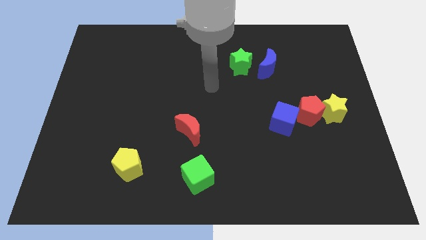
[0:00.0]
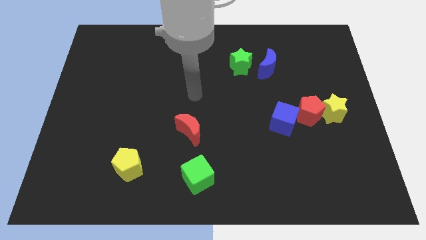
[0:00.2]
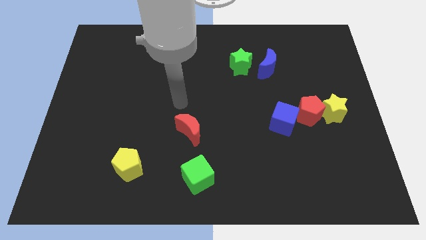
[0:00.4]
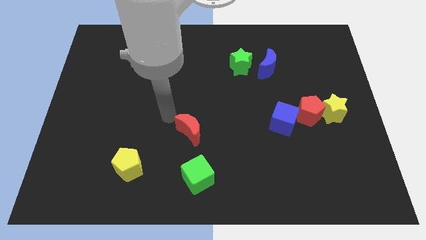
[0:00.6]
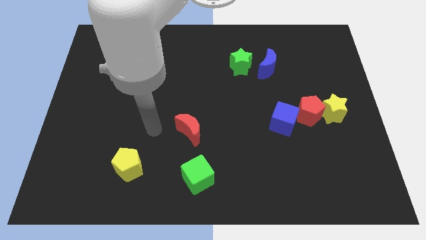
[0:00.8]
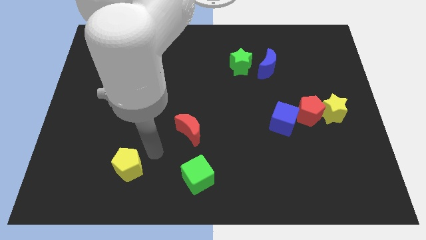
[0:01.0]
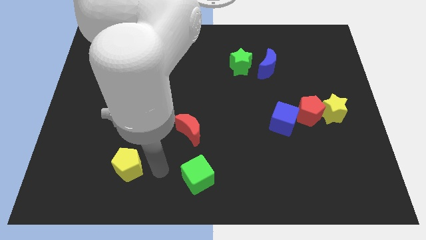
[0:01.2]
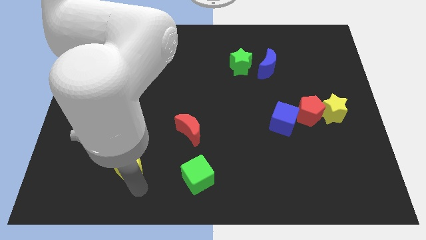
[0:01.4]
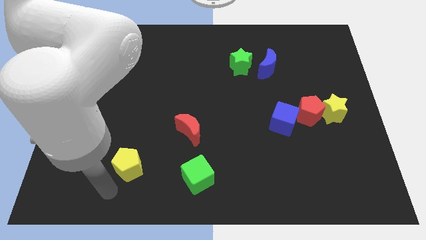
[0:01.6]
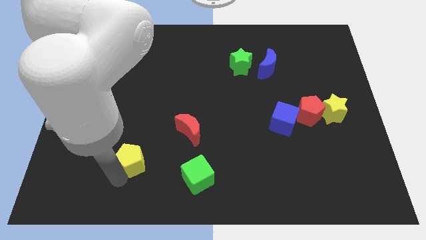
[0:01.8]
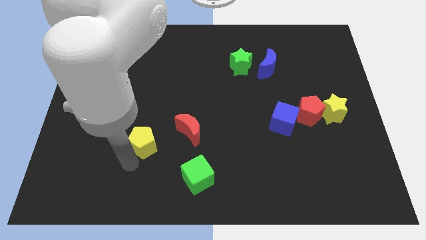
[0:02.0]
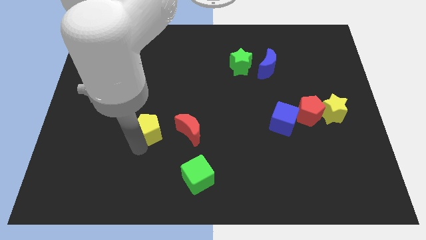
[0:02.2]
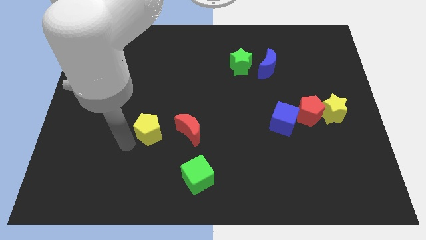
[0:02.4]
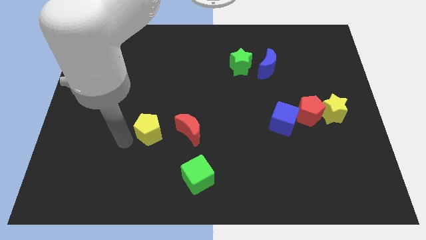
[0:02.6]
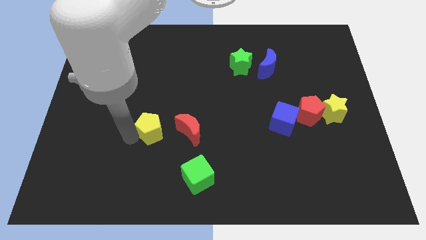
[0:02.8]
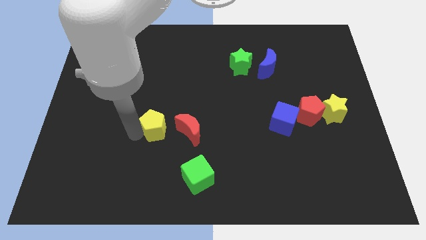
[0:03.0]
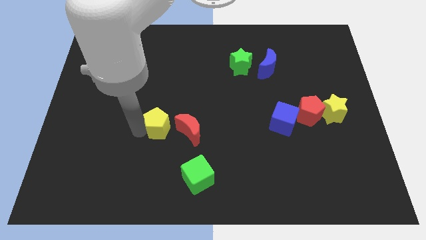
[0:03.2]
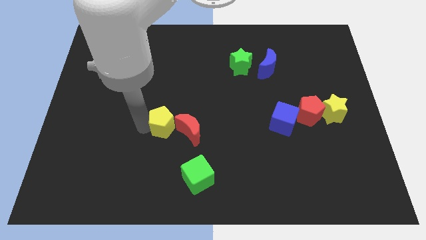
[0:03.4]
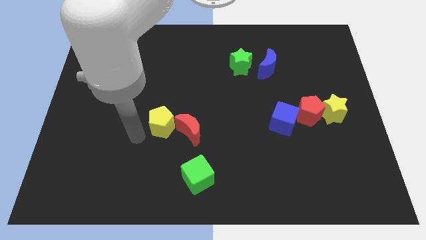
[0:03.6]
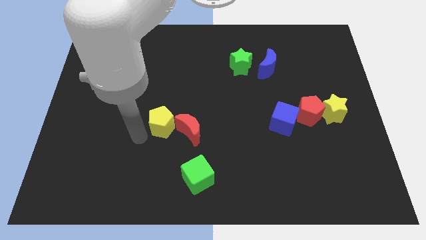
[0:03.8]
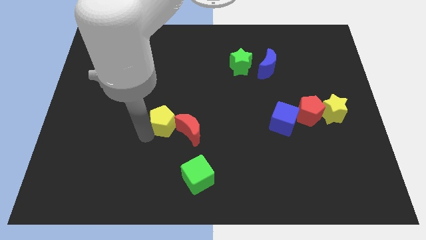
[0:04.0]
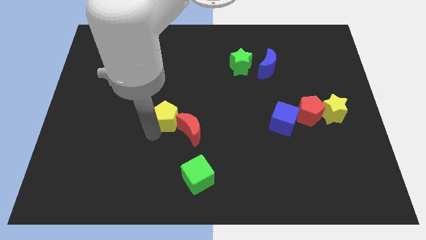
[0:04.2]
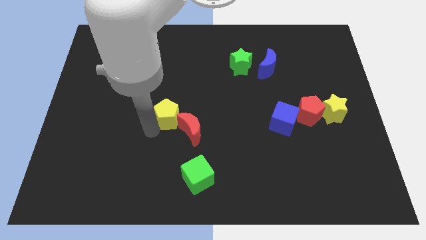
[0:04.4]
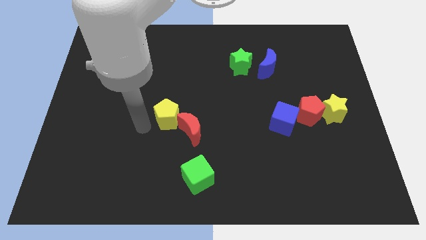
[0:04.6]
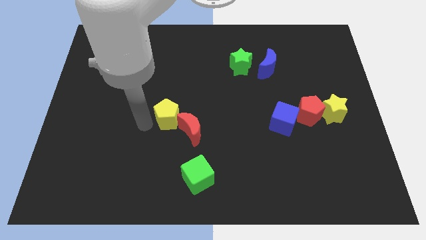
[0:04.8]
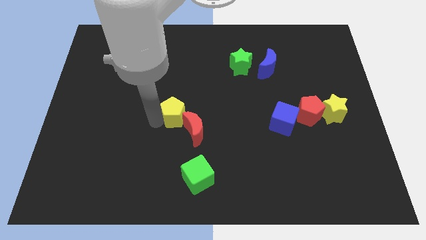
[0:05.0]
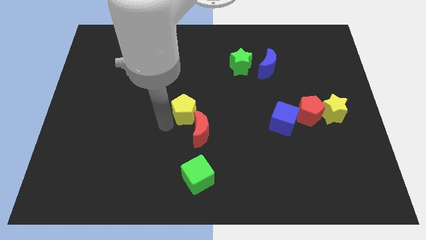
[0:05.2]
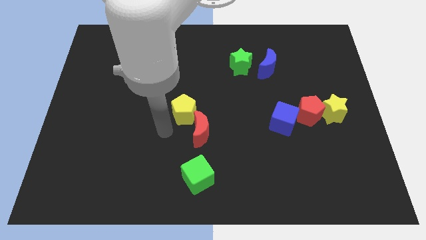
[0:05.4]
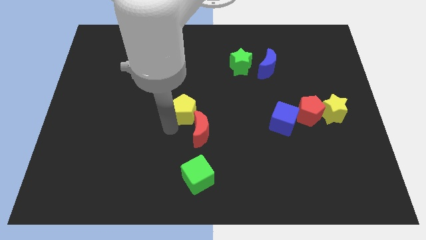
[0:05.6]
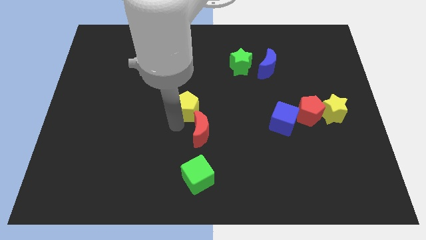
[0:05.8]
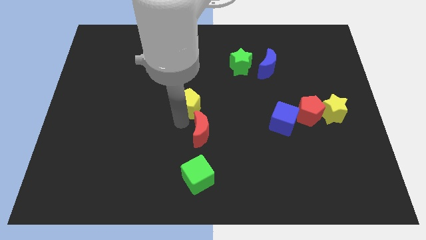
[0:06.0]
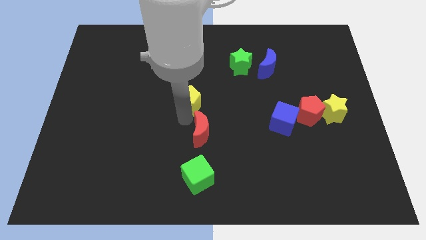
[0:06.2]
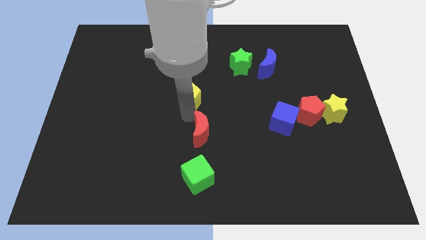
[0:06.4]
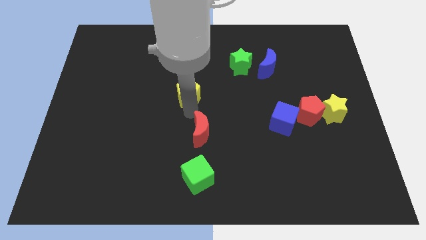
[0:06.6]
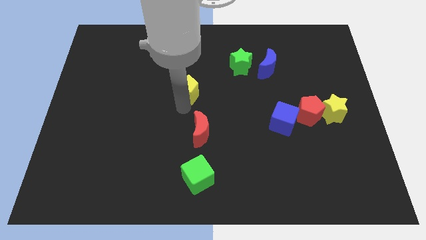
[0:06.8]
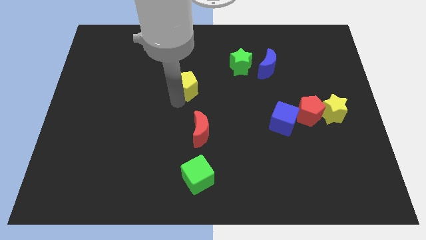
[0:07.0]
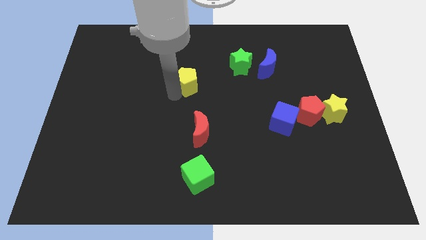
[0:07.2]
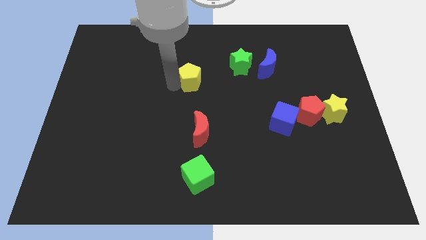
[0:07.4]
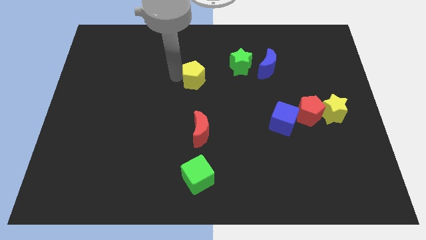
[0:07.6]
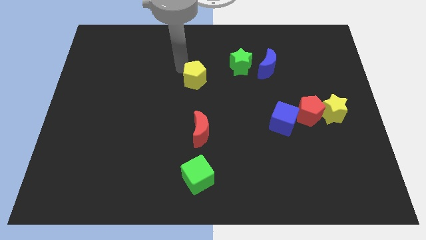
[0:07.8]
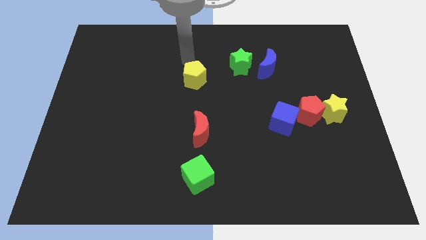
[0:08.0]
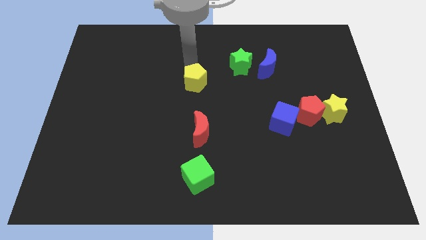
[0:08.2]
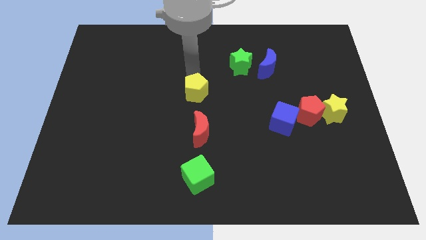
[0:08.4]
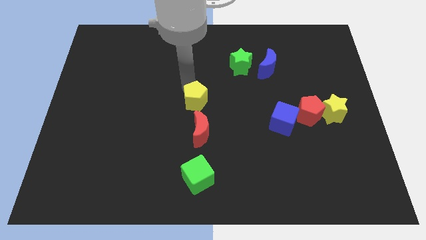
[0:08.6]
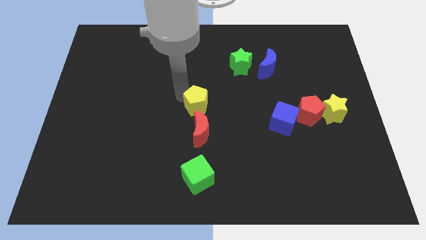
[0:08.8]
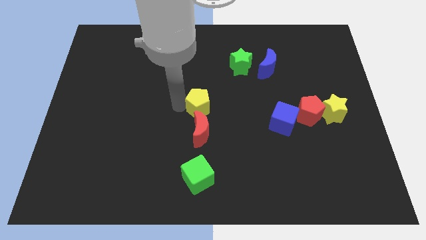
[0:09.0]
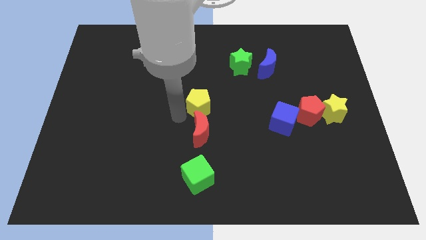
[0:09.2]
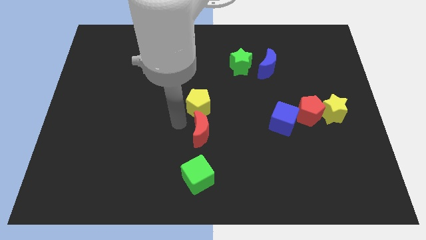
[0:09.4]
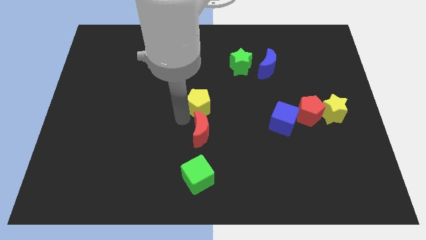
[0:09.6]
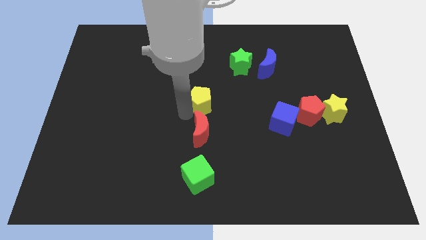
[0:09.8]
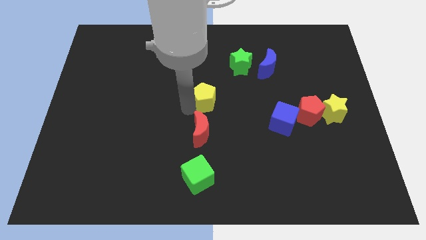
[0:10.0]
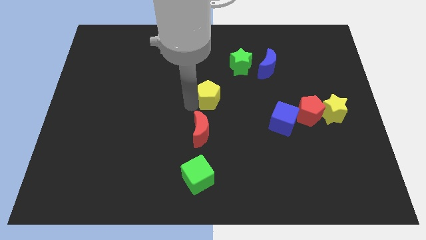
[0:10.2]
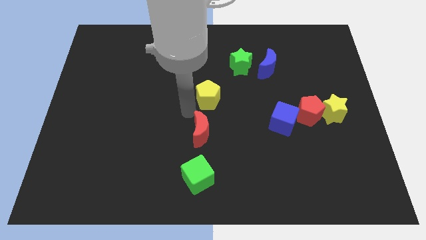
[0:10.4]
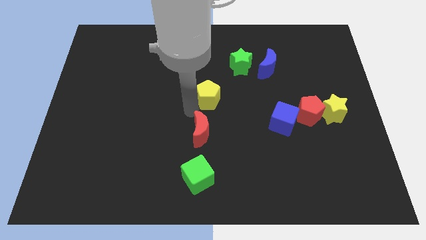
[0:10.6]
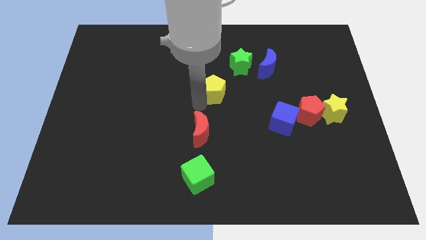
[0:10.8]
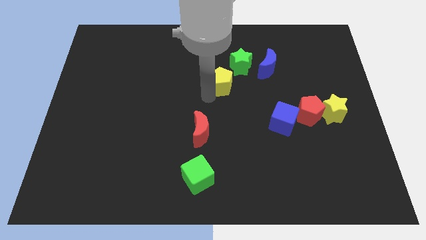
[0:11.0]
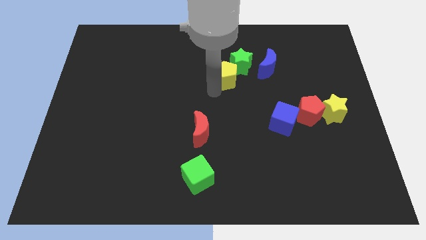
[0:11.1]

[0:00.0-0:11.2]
move the yellow pentagon close to the green star

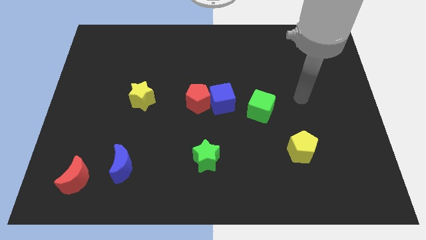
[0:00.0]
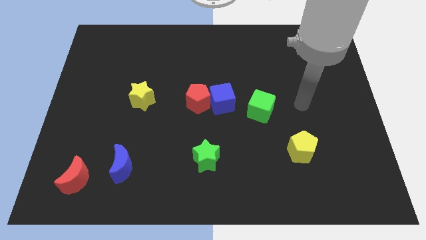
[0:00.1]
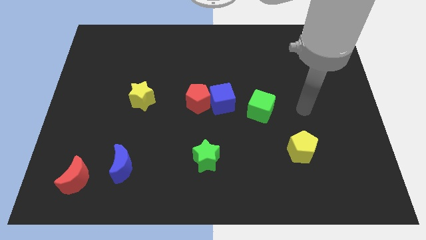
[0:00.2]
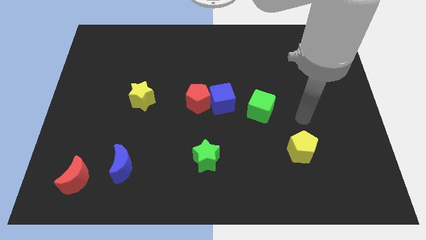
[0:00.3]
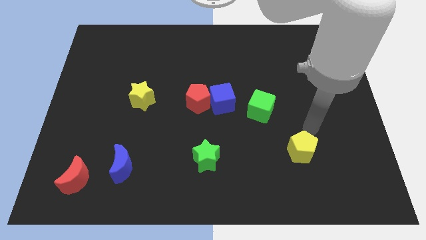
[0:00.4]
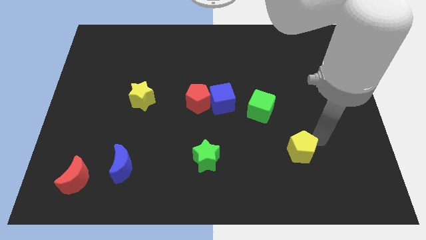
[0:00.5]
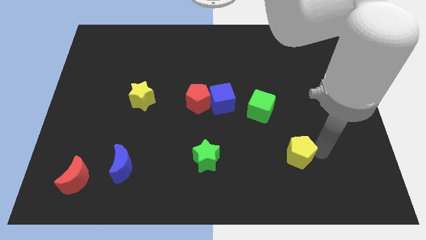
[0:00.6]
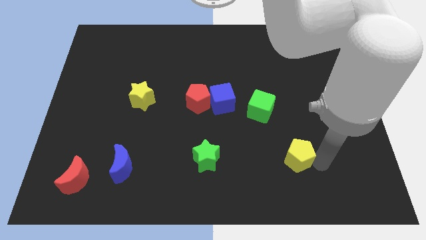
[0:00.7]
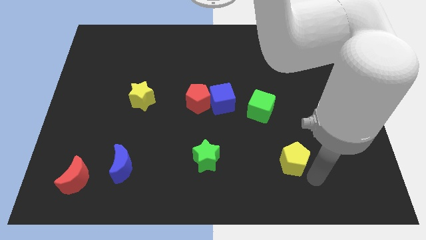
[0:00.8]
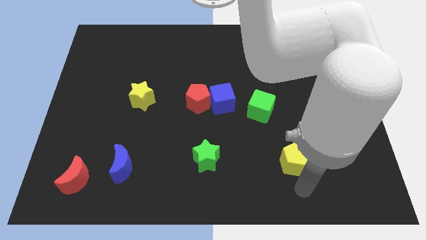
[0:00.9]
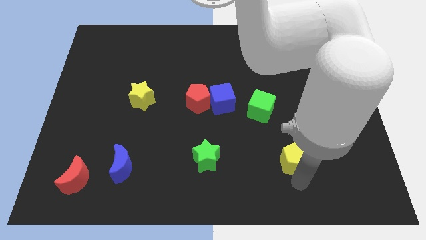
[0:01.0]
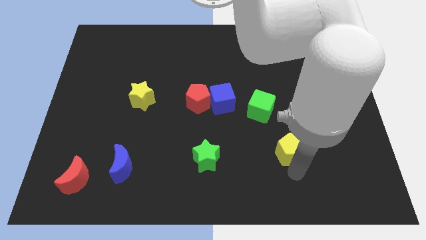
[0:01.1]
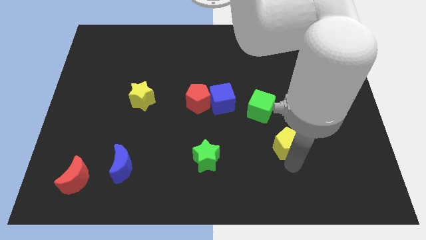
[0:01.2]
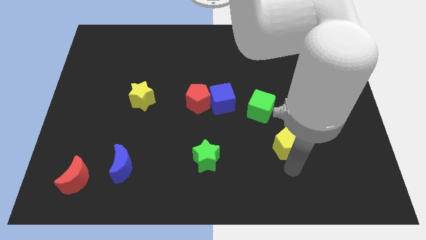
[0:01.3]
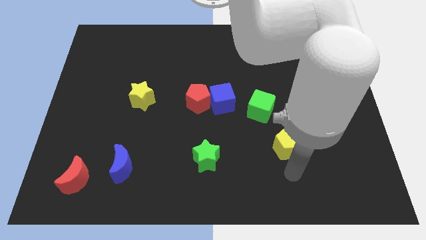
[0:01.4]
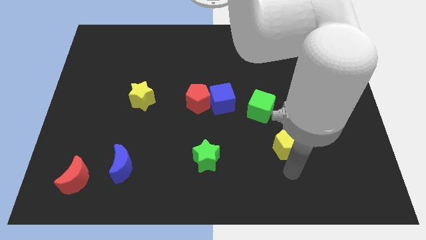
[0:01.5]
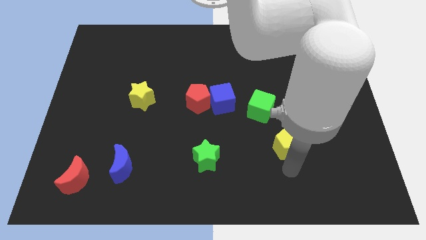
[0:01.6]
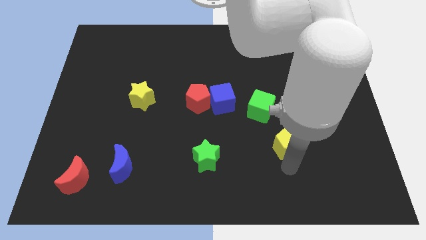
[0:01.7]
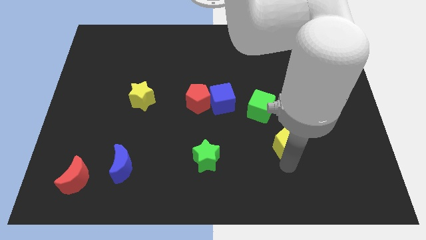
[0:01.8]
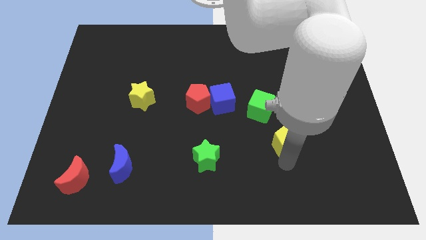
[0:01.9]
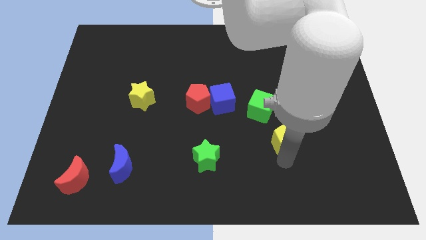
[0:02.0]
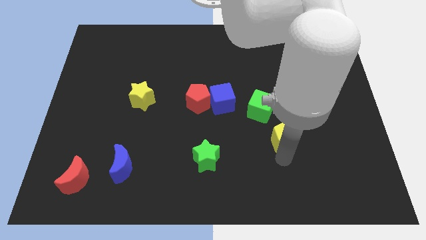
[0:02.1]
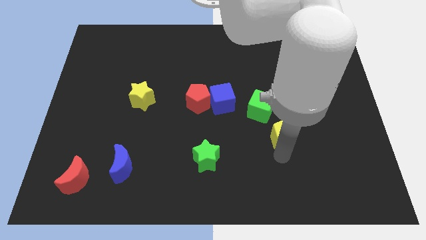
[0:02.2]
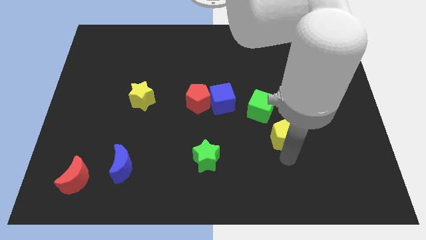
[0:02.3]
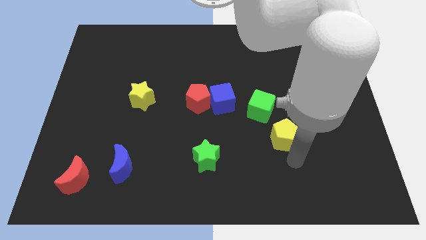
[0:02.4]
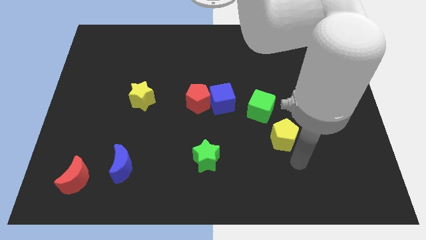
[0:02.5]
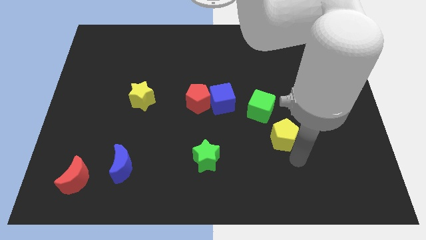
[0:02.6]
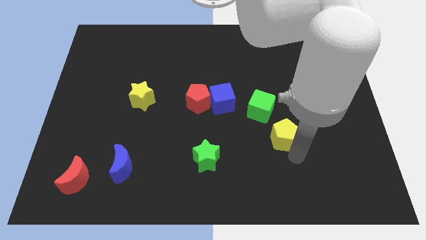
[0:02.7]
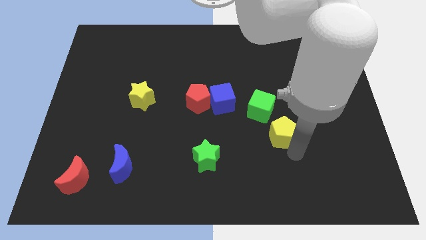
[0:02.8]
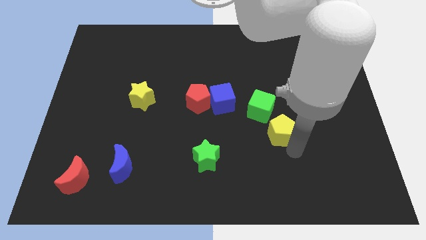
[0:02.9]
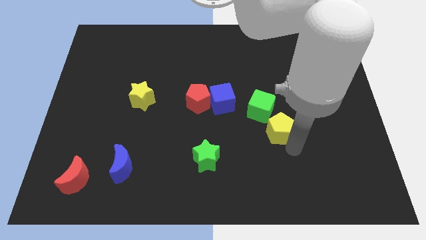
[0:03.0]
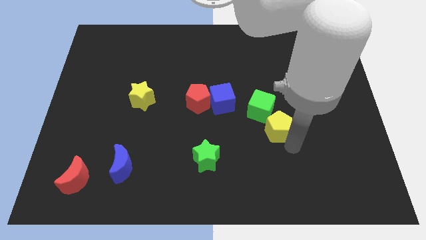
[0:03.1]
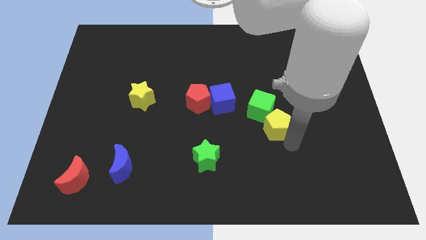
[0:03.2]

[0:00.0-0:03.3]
push the yellow pentagon to the green cube
